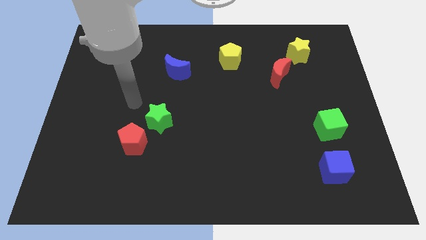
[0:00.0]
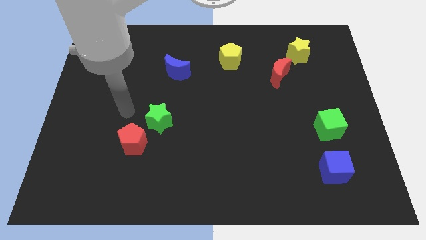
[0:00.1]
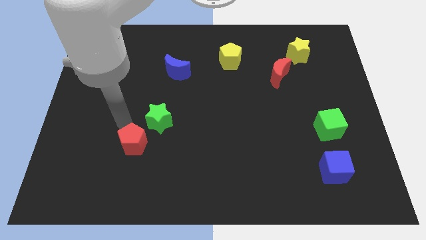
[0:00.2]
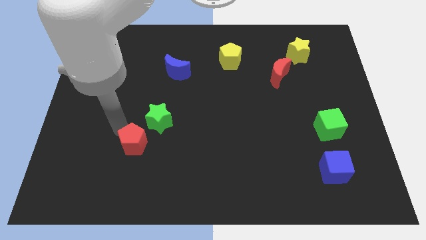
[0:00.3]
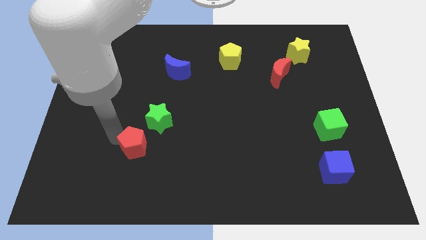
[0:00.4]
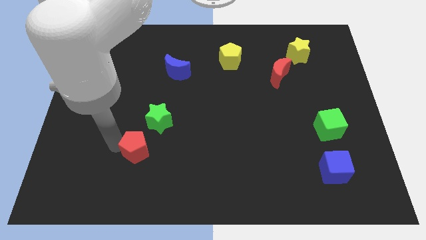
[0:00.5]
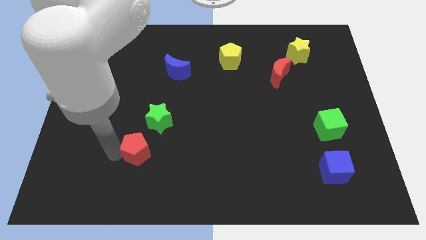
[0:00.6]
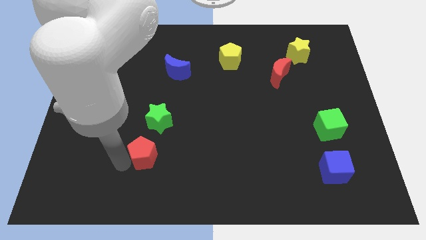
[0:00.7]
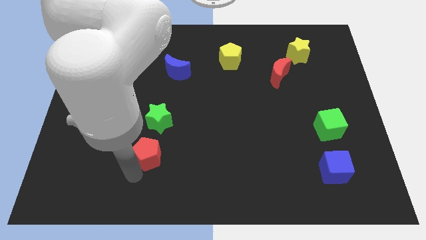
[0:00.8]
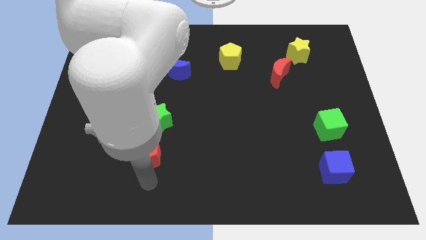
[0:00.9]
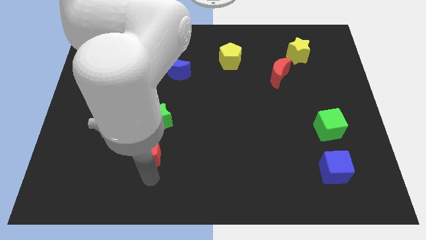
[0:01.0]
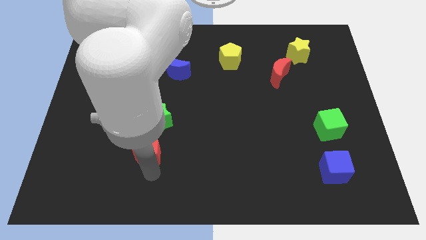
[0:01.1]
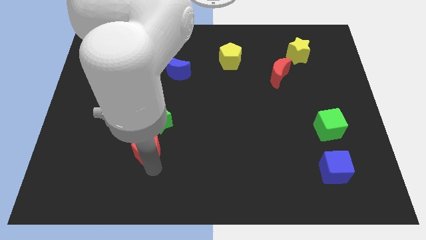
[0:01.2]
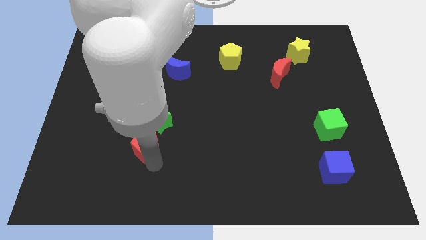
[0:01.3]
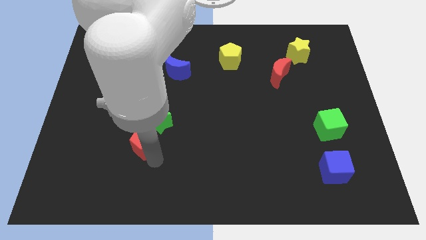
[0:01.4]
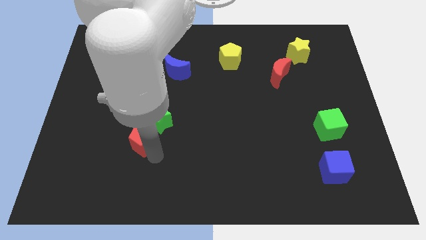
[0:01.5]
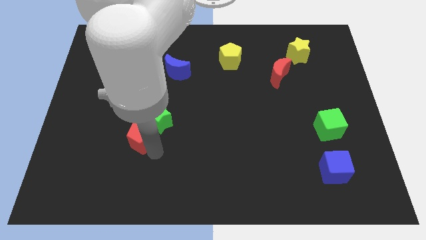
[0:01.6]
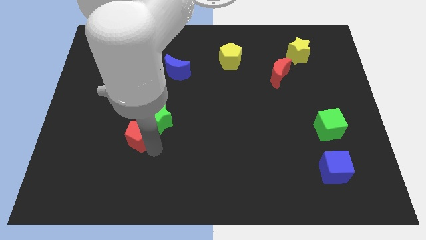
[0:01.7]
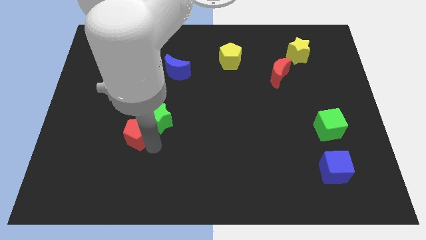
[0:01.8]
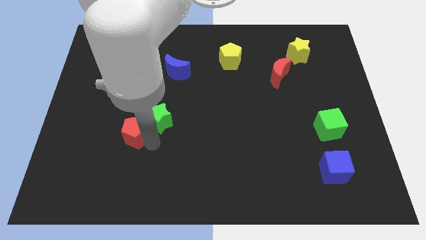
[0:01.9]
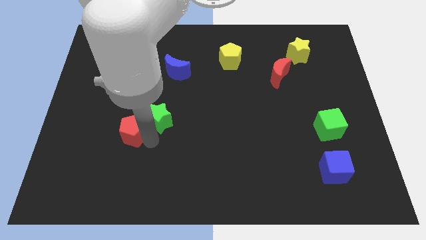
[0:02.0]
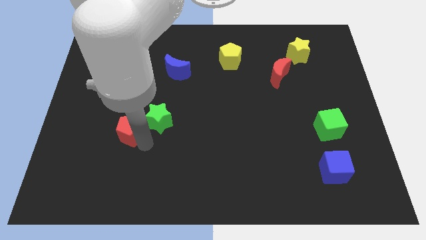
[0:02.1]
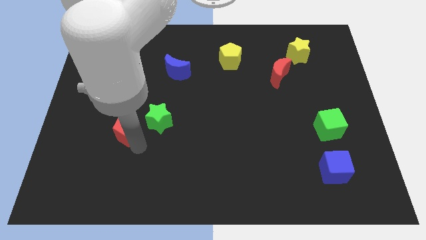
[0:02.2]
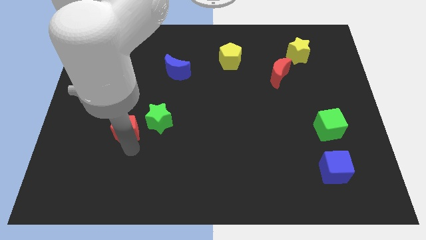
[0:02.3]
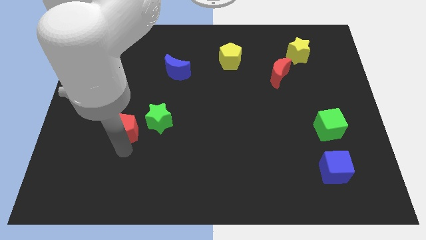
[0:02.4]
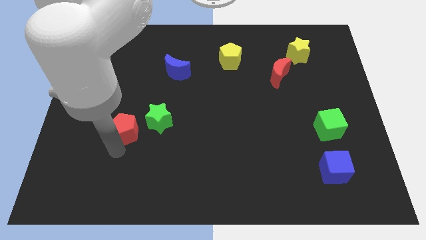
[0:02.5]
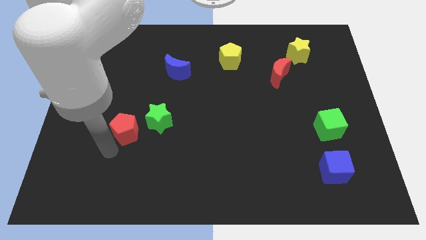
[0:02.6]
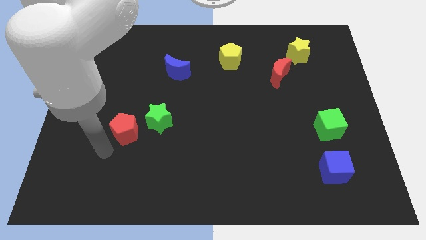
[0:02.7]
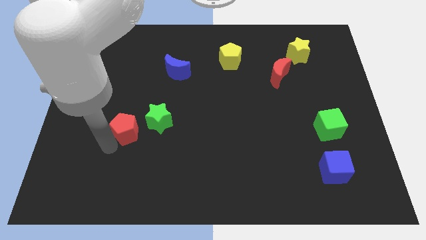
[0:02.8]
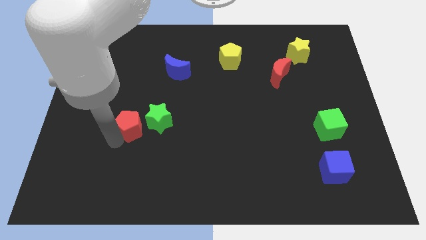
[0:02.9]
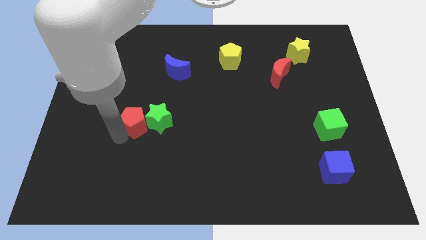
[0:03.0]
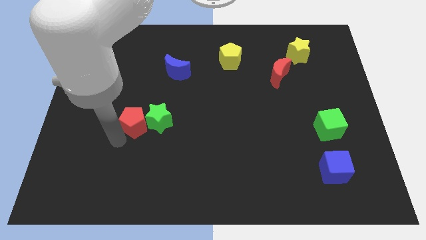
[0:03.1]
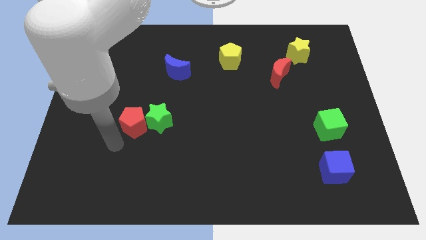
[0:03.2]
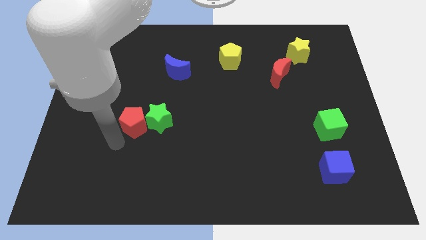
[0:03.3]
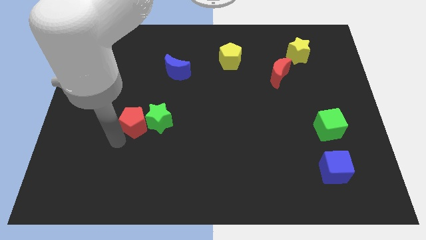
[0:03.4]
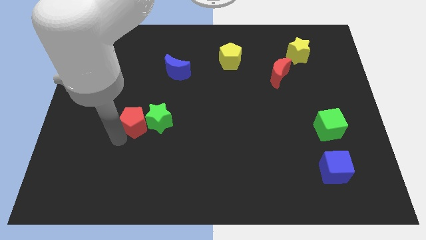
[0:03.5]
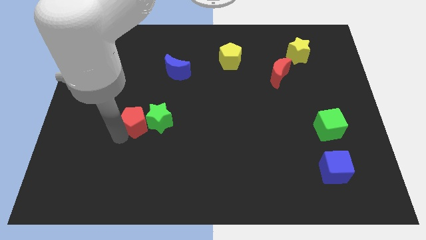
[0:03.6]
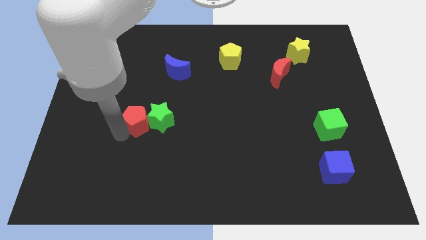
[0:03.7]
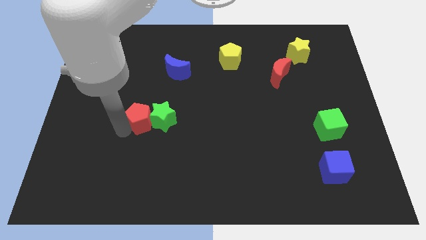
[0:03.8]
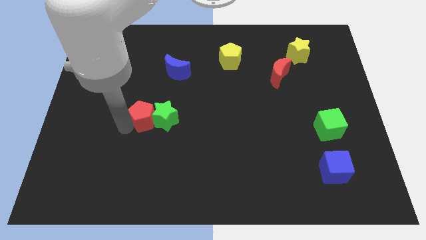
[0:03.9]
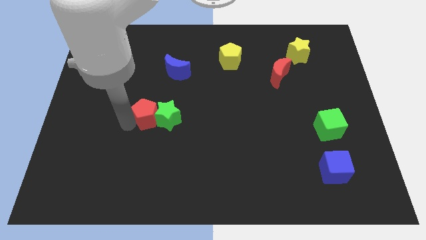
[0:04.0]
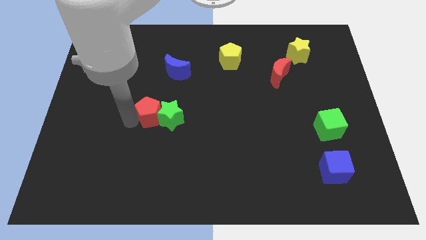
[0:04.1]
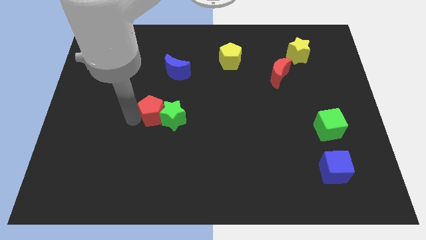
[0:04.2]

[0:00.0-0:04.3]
slightly move the red pentagon diagonally up and to the right

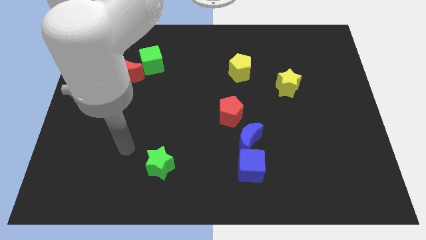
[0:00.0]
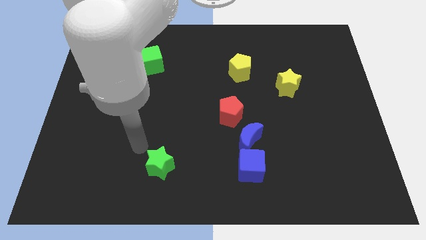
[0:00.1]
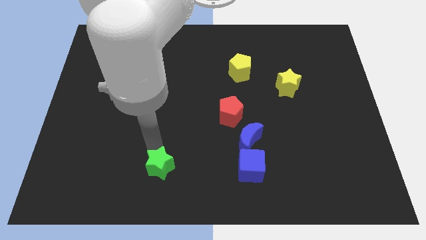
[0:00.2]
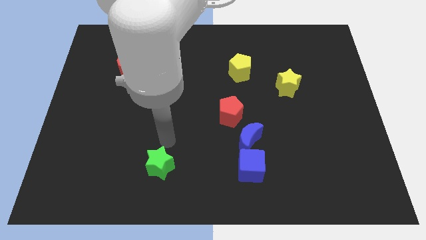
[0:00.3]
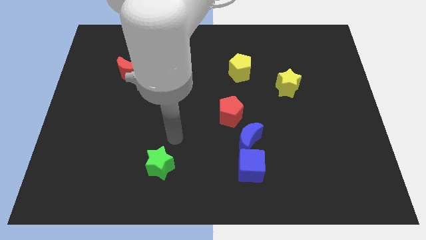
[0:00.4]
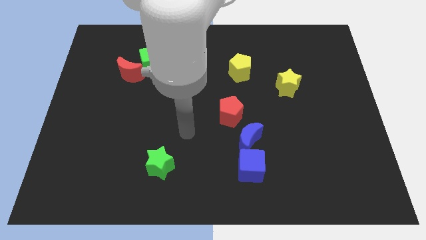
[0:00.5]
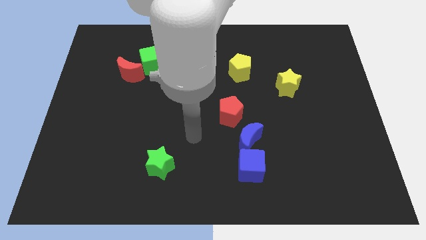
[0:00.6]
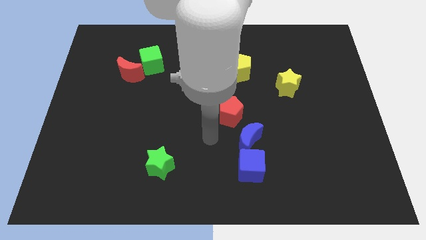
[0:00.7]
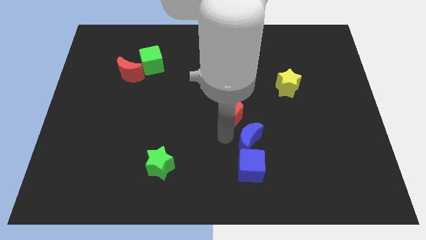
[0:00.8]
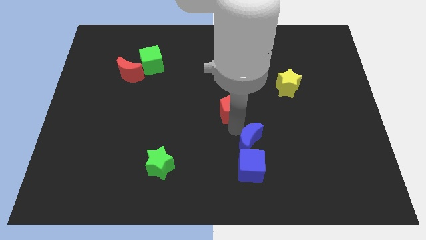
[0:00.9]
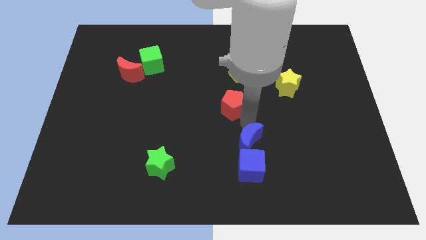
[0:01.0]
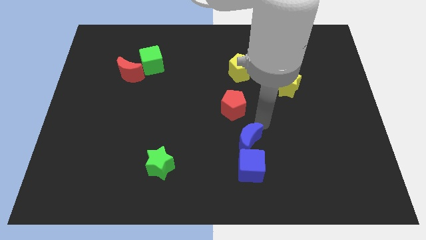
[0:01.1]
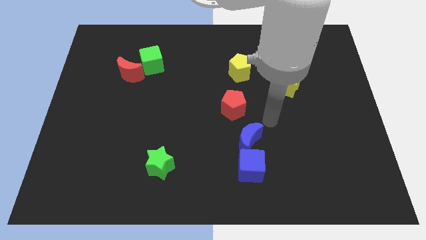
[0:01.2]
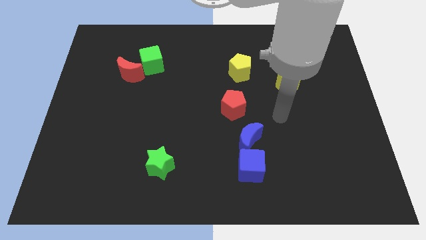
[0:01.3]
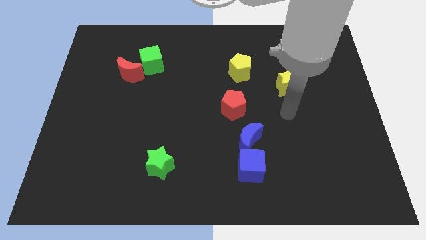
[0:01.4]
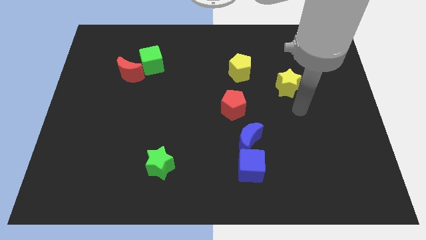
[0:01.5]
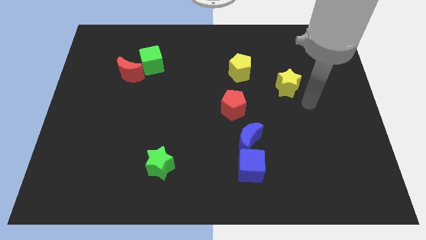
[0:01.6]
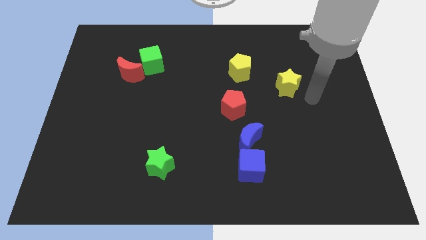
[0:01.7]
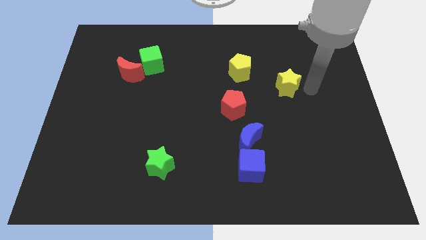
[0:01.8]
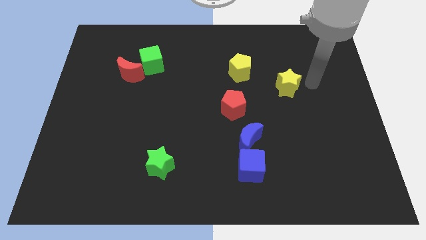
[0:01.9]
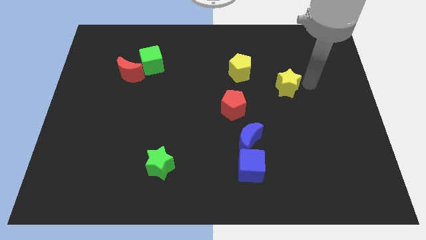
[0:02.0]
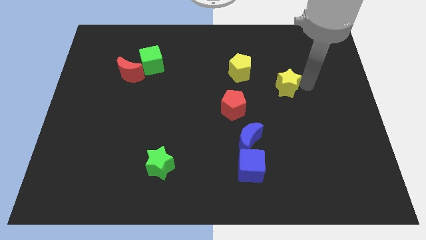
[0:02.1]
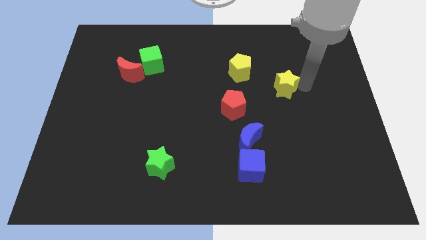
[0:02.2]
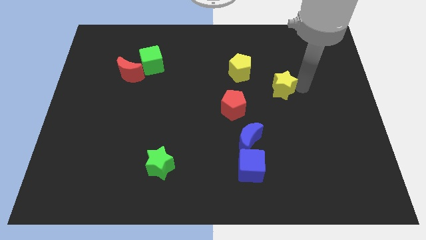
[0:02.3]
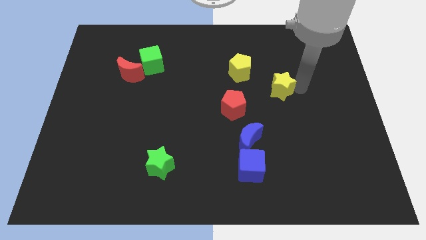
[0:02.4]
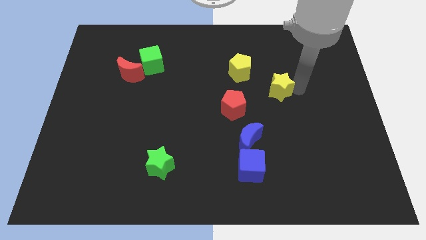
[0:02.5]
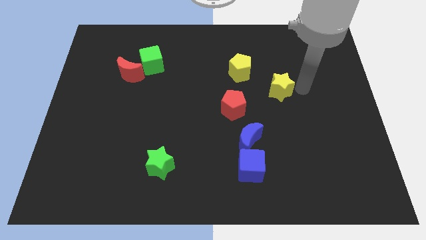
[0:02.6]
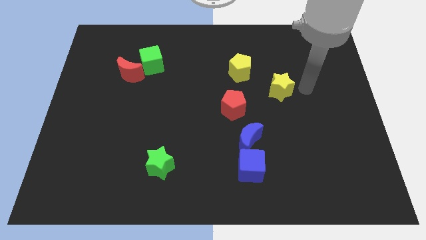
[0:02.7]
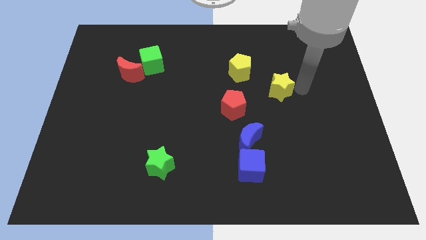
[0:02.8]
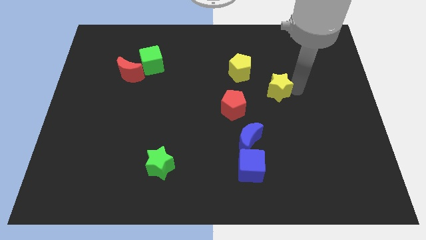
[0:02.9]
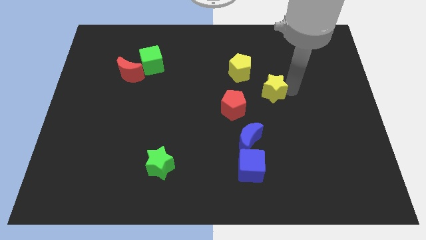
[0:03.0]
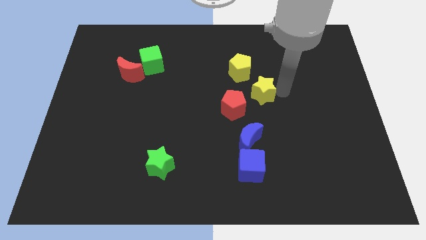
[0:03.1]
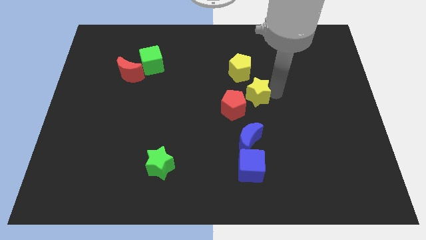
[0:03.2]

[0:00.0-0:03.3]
slightly move the yellow star to the left

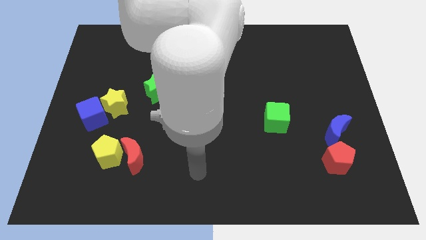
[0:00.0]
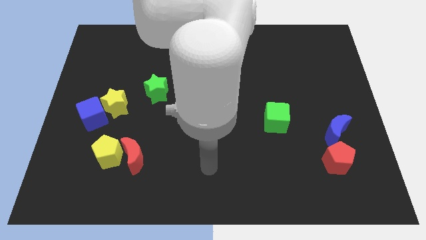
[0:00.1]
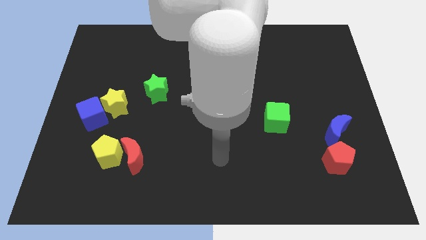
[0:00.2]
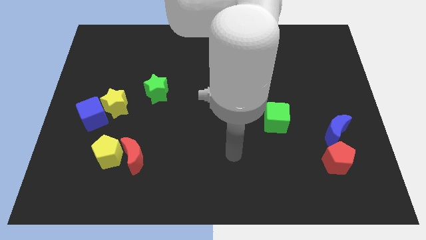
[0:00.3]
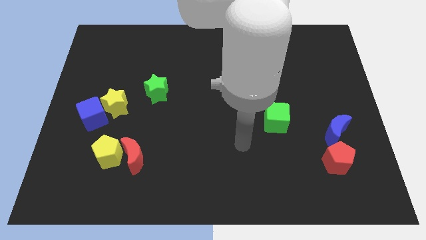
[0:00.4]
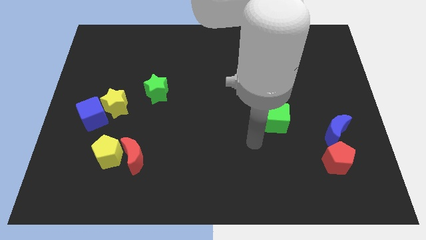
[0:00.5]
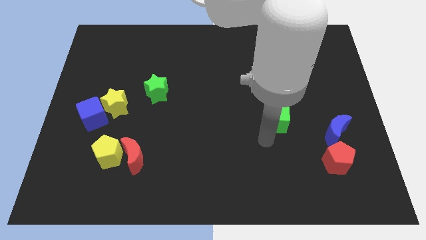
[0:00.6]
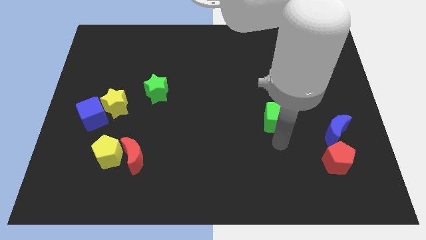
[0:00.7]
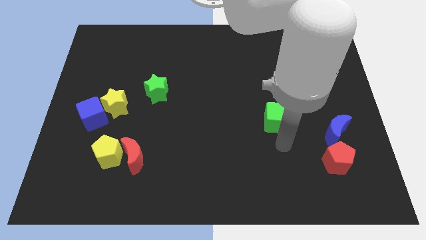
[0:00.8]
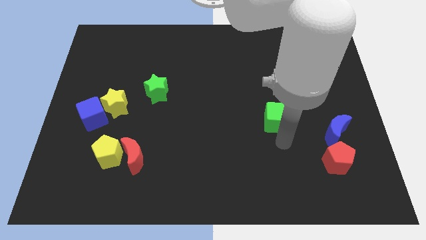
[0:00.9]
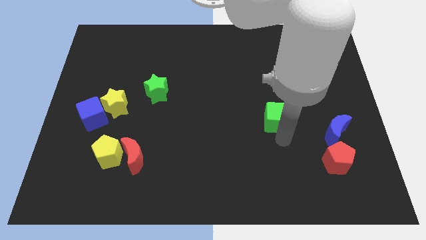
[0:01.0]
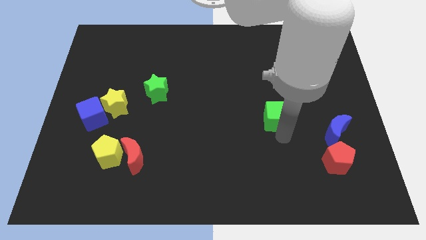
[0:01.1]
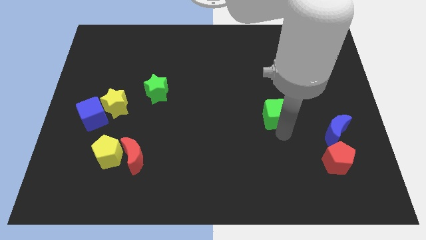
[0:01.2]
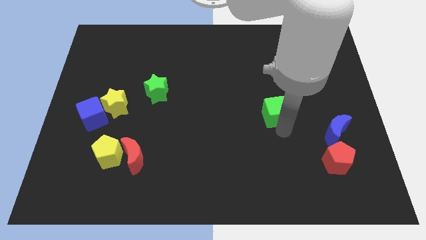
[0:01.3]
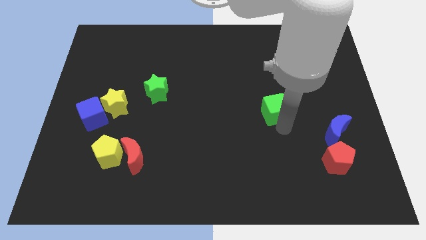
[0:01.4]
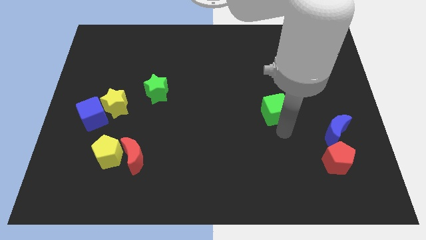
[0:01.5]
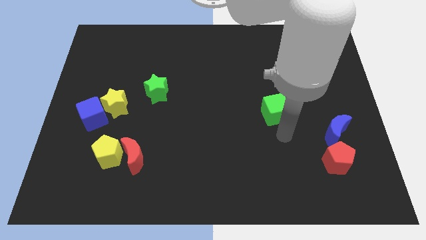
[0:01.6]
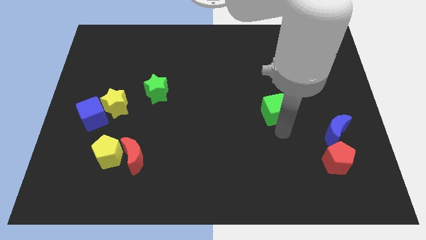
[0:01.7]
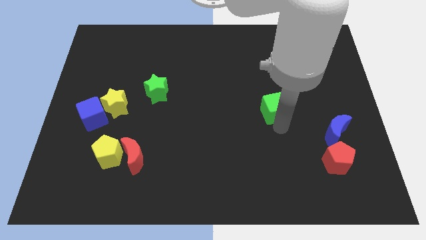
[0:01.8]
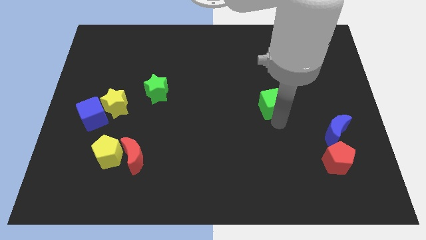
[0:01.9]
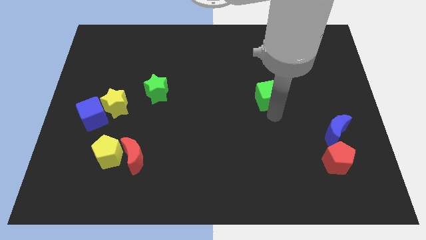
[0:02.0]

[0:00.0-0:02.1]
push the green cube upwards a bit
